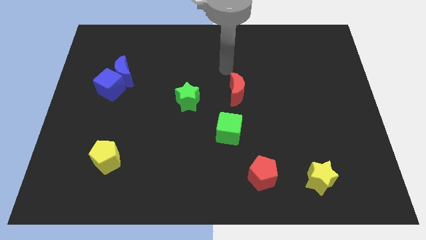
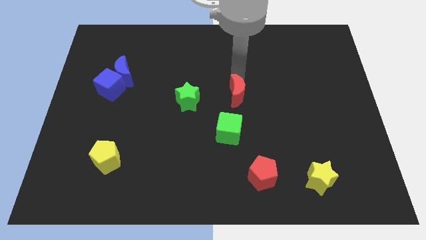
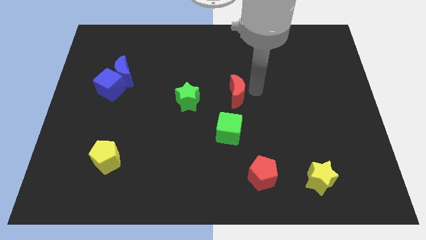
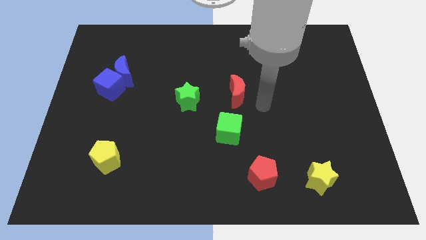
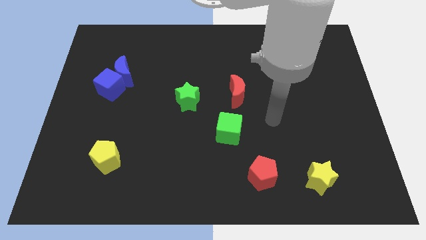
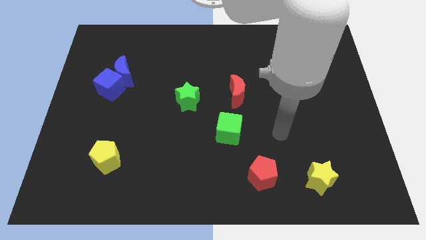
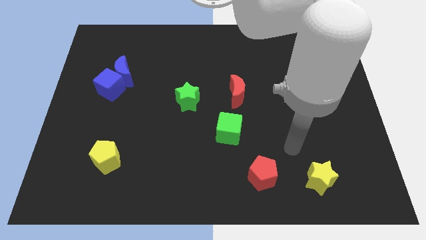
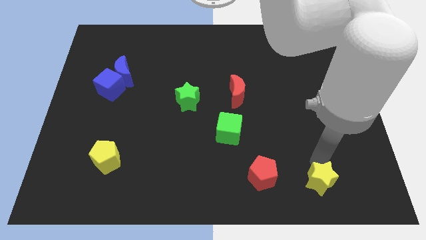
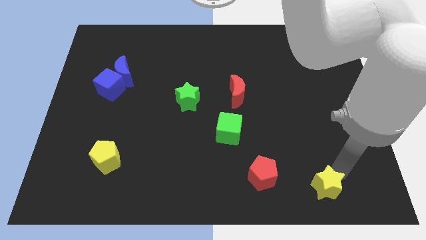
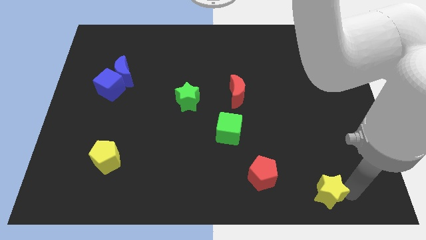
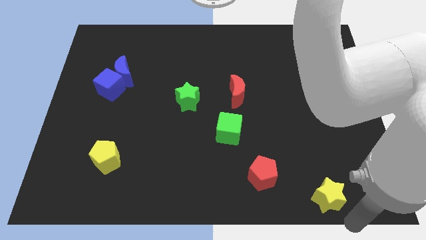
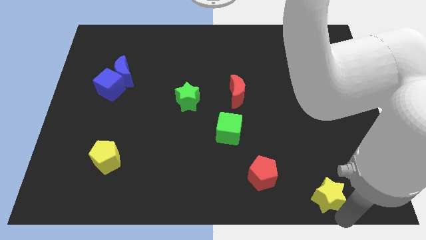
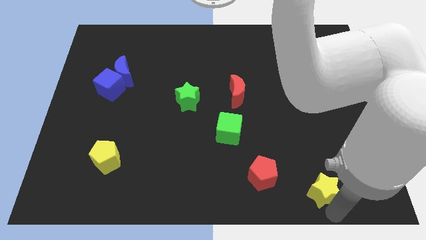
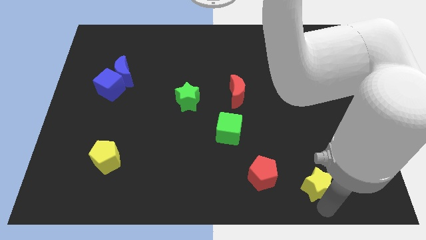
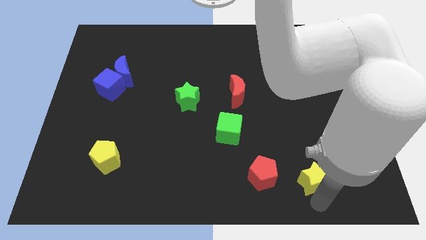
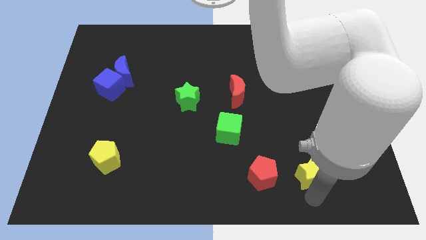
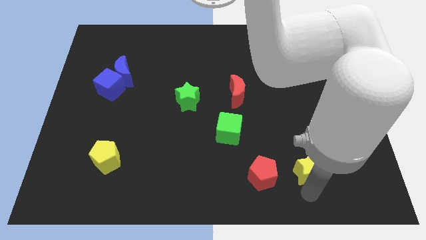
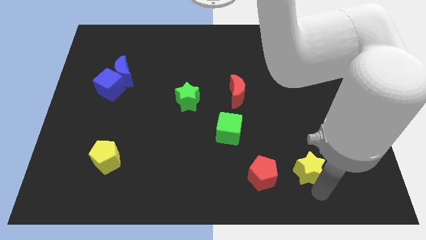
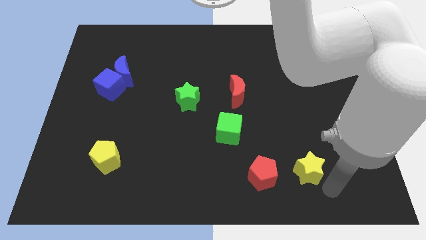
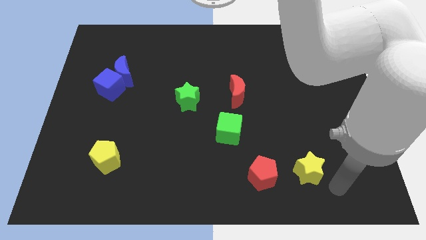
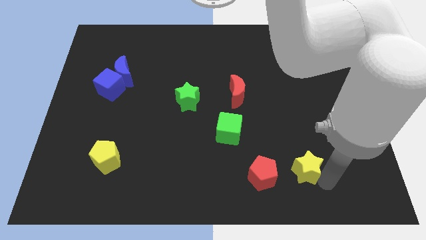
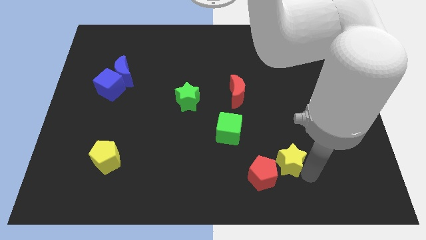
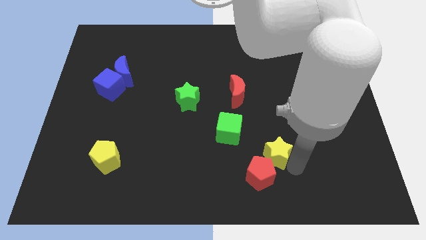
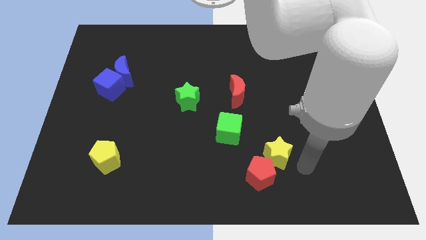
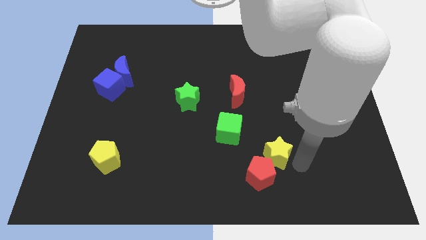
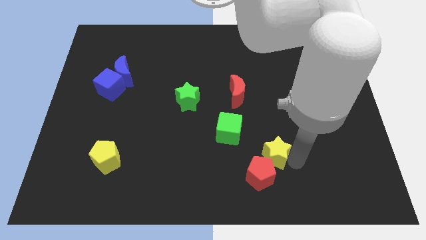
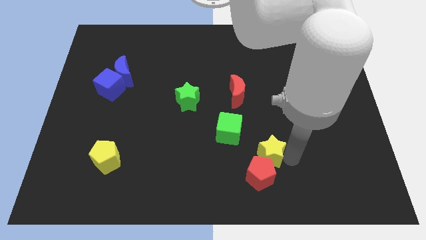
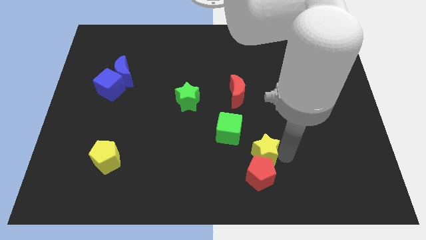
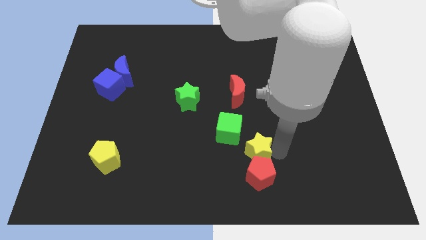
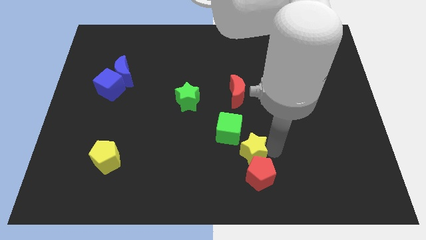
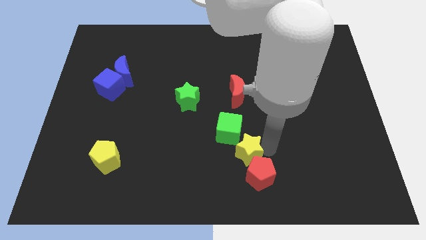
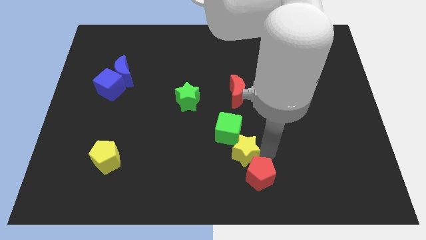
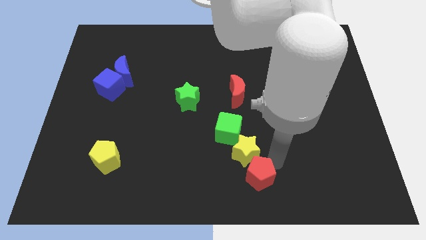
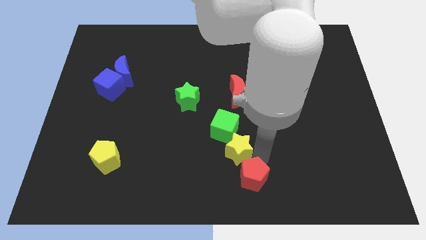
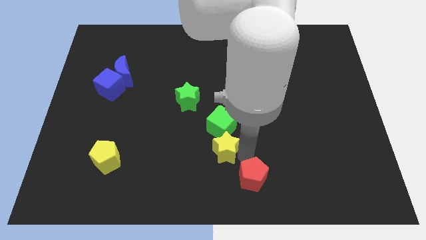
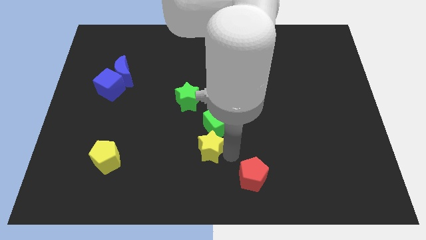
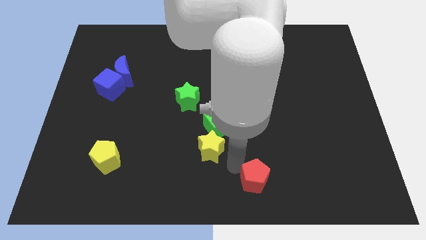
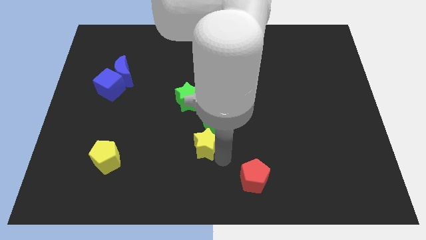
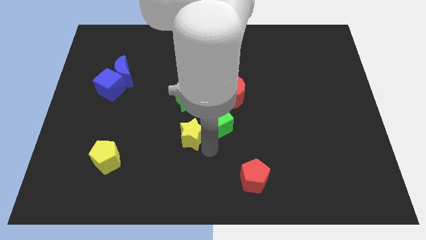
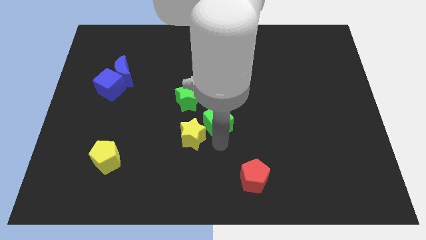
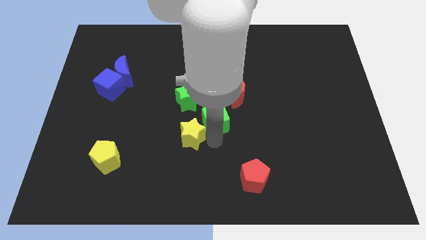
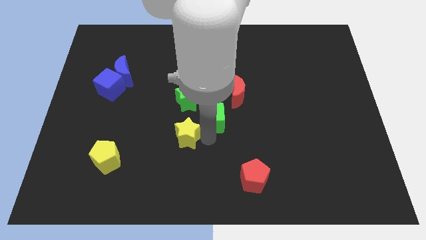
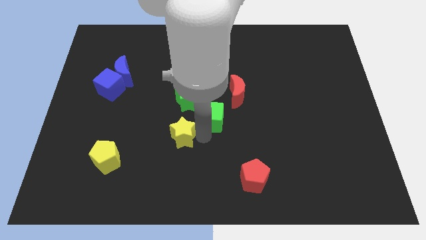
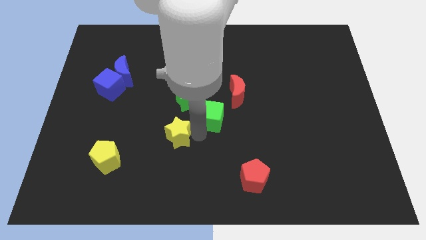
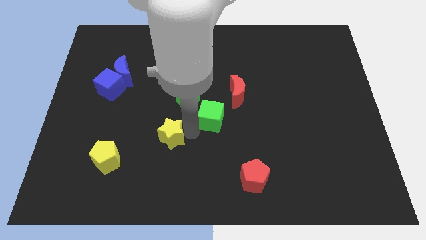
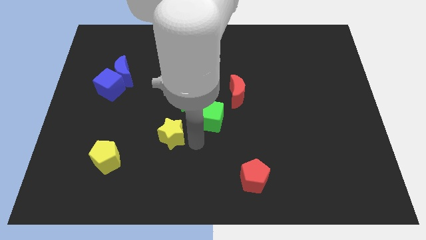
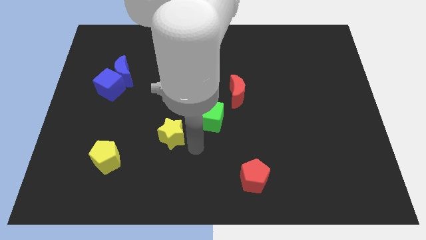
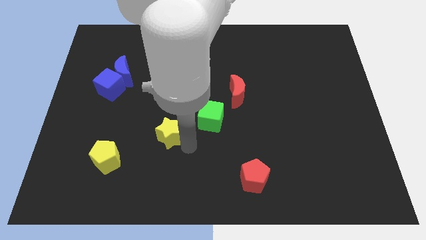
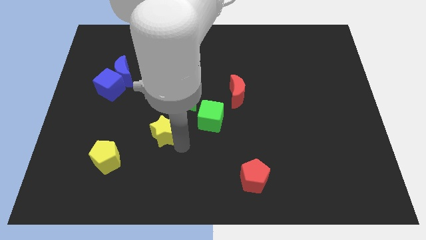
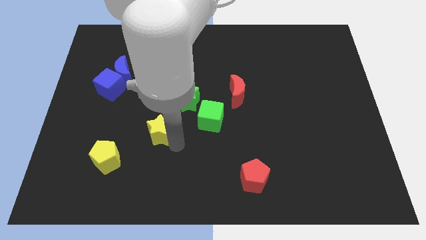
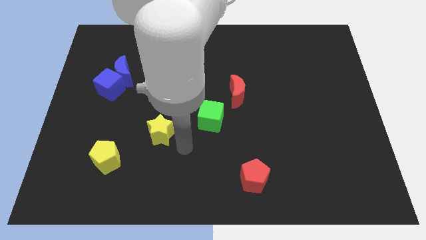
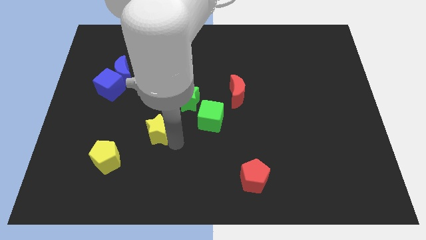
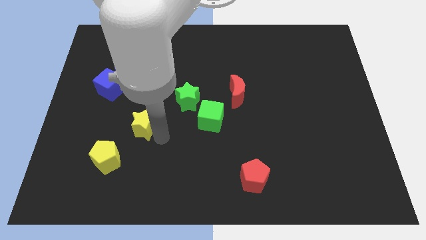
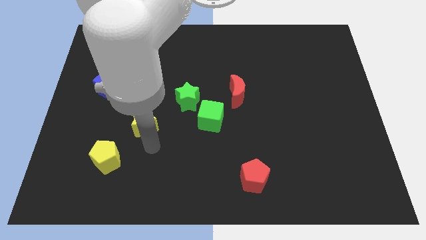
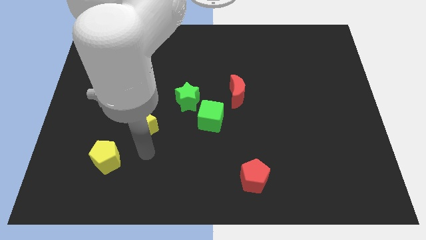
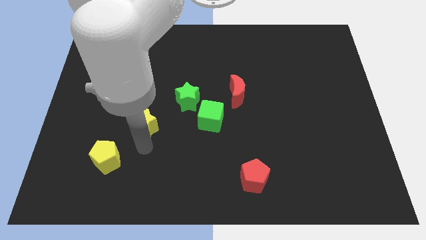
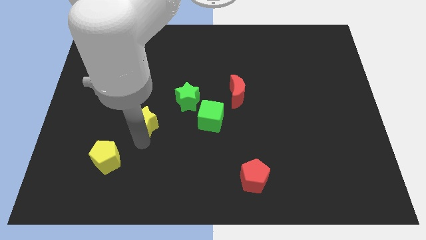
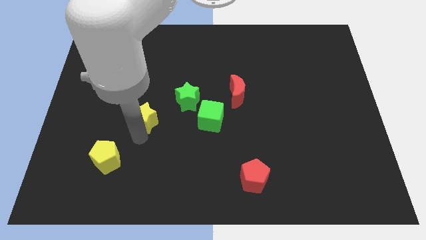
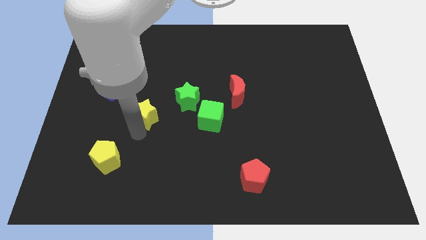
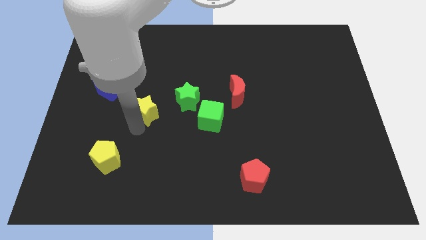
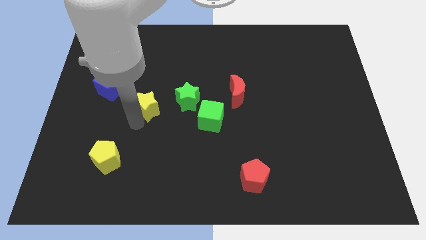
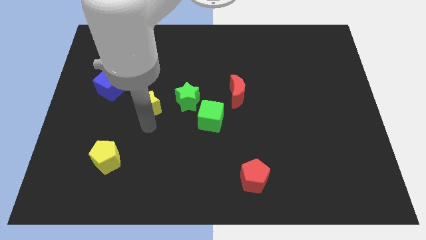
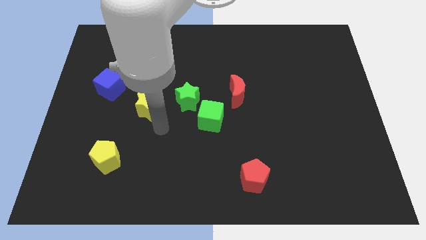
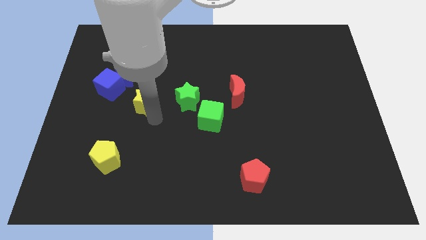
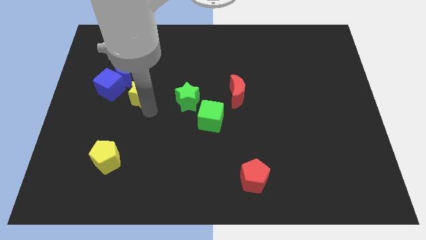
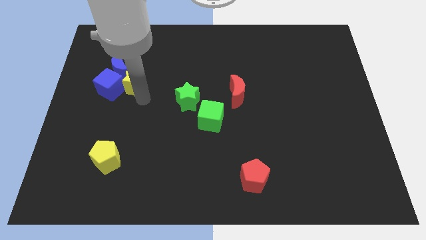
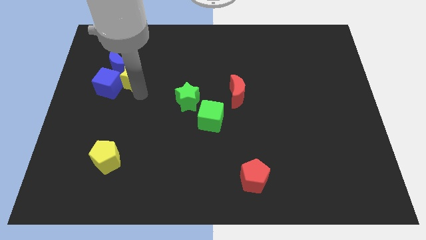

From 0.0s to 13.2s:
push the yellow star close to the blue moon
